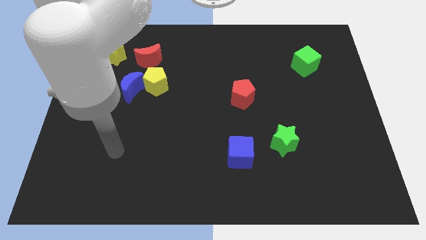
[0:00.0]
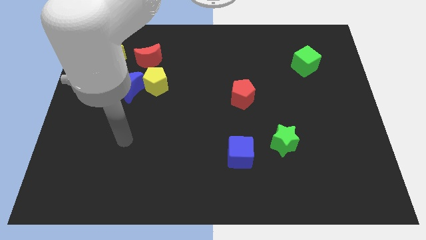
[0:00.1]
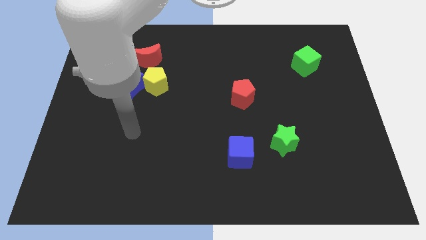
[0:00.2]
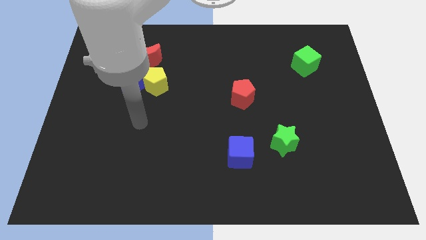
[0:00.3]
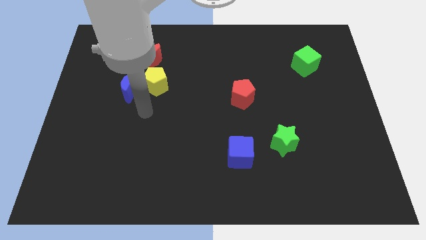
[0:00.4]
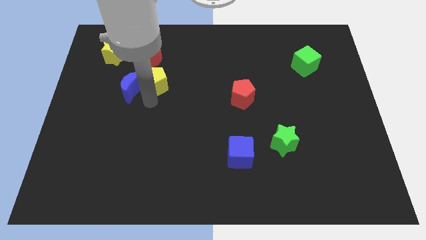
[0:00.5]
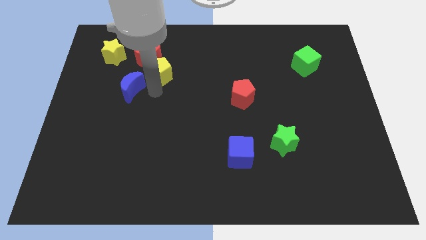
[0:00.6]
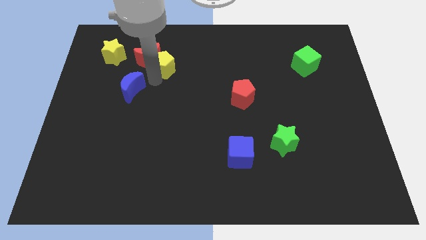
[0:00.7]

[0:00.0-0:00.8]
move the blue moon away from the yellow pentagon

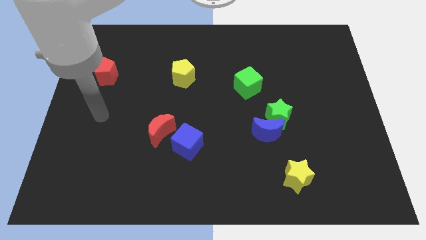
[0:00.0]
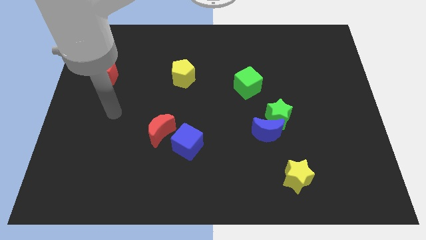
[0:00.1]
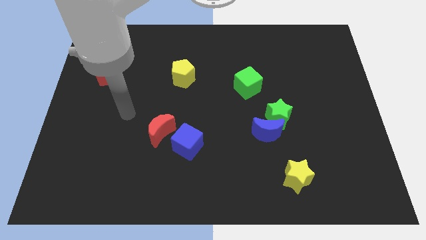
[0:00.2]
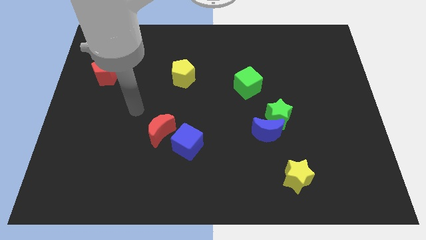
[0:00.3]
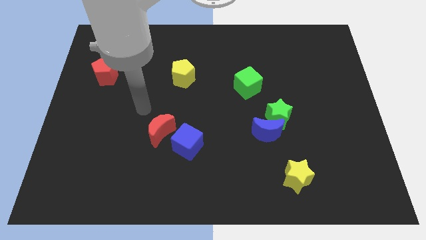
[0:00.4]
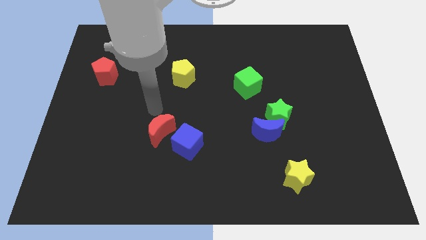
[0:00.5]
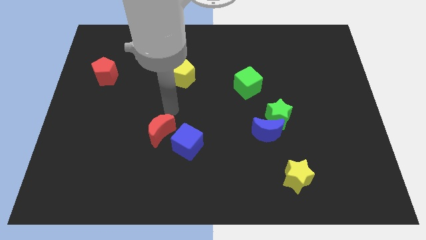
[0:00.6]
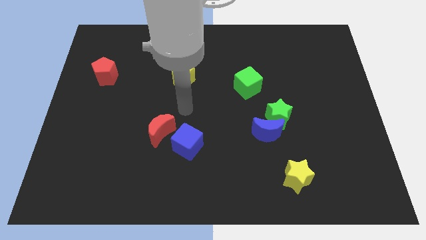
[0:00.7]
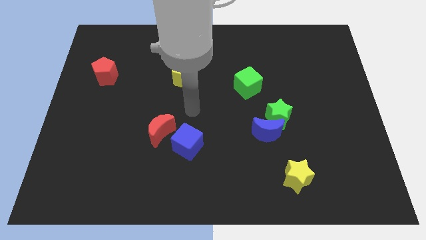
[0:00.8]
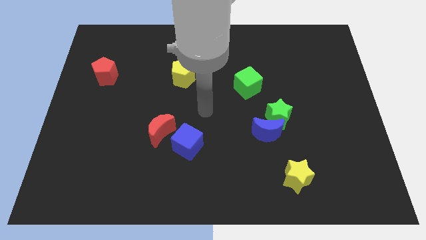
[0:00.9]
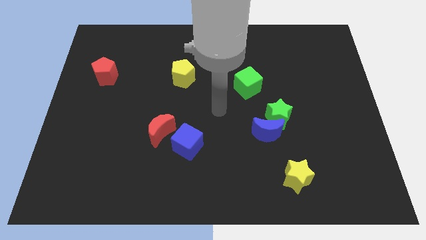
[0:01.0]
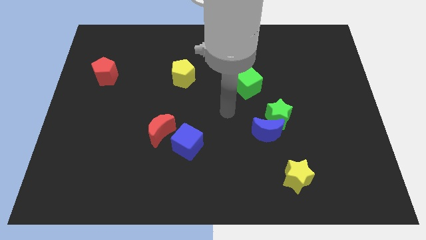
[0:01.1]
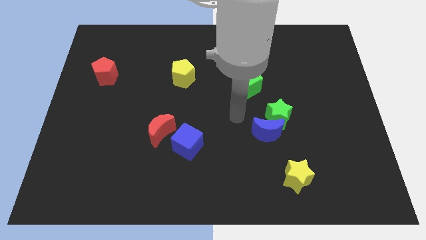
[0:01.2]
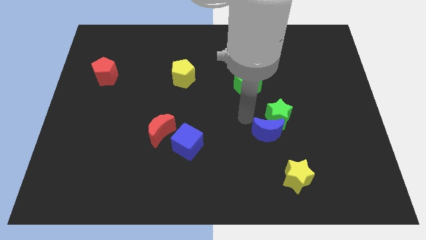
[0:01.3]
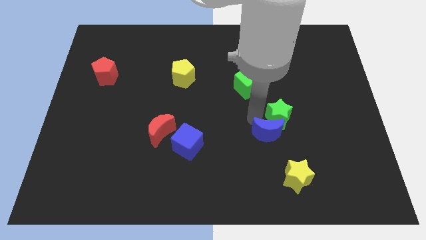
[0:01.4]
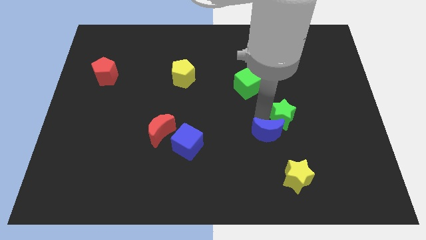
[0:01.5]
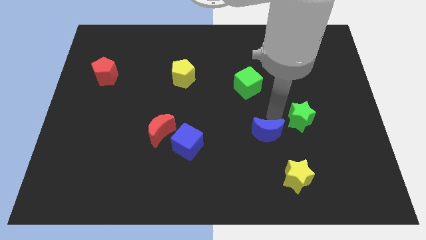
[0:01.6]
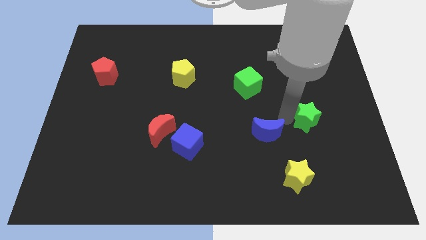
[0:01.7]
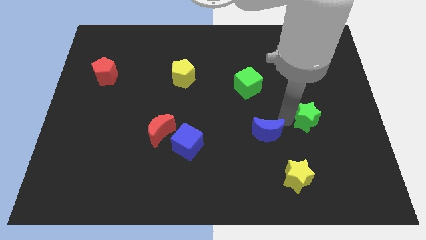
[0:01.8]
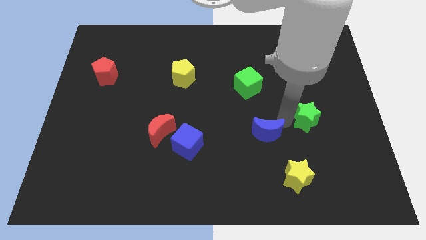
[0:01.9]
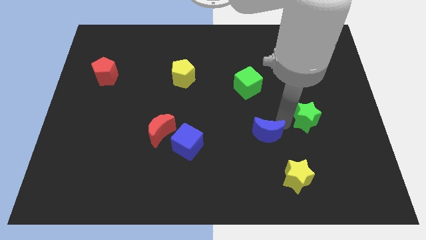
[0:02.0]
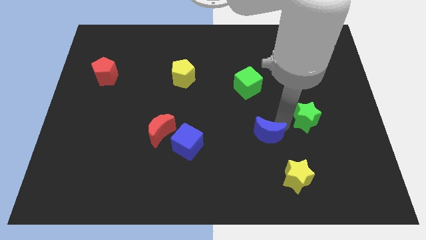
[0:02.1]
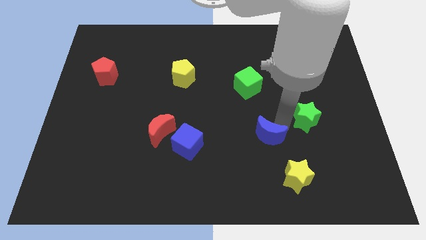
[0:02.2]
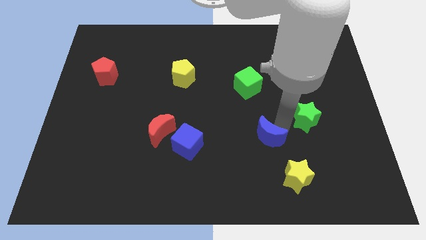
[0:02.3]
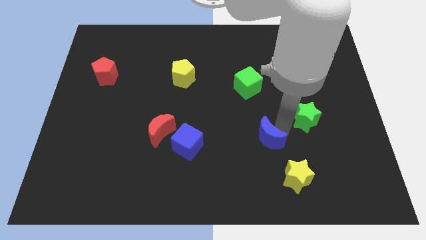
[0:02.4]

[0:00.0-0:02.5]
pull the blue moon apart from the green star

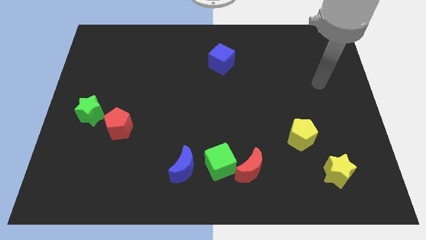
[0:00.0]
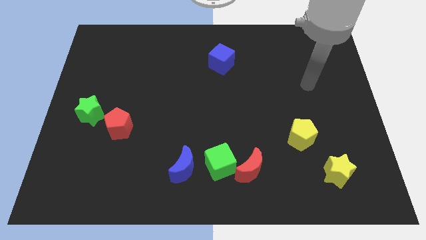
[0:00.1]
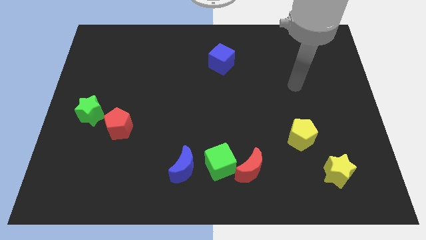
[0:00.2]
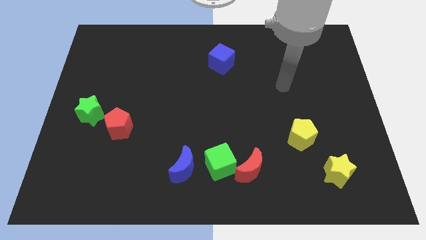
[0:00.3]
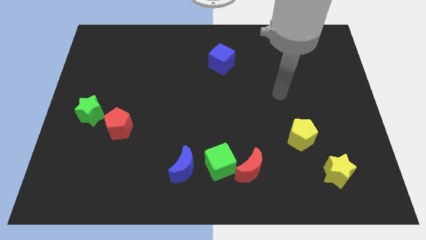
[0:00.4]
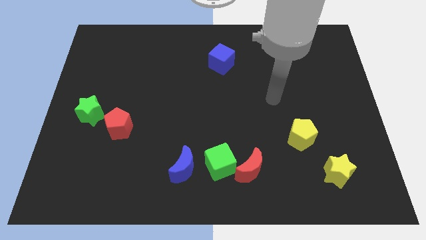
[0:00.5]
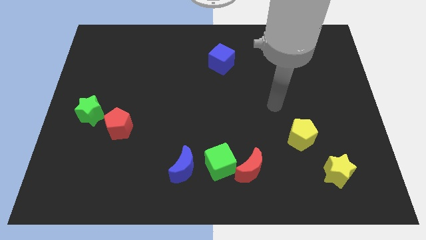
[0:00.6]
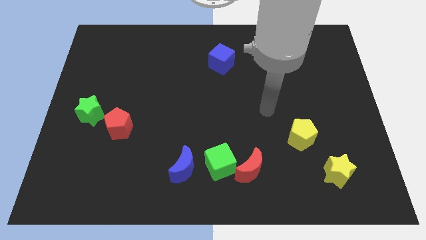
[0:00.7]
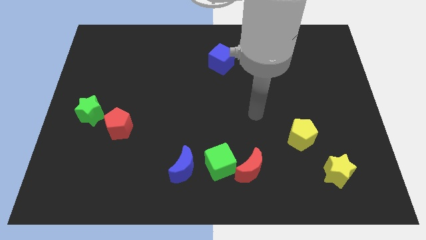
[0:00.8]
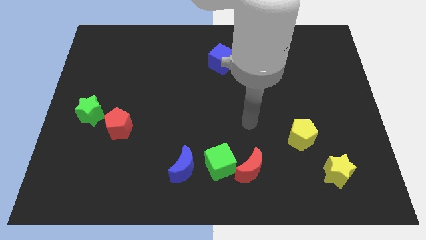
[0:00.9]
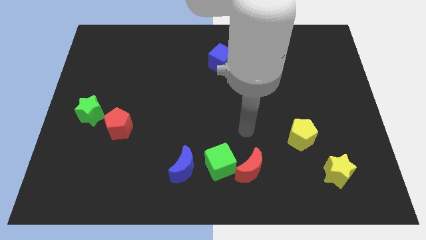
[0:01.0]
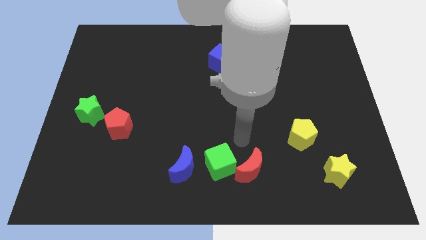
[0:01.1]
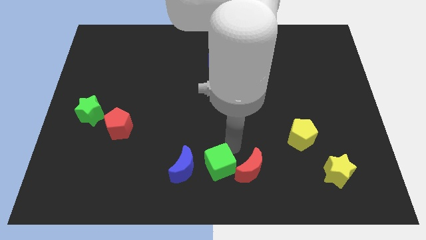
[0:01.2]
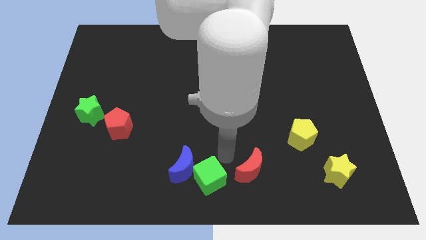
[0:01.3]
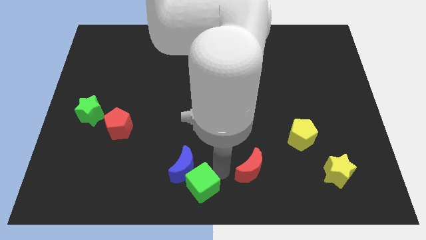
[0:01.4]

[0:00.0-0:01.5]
move the red moon away from the green cube

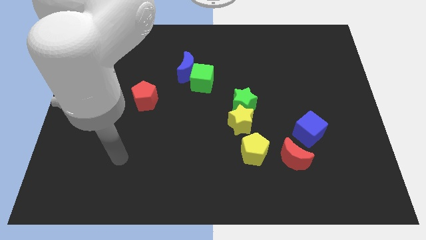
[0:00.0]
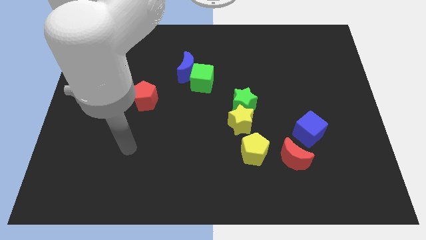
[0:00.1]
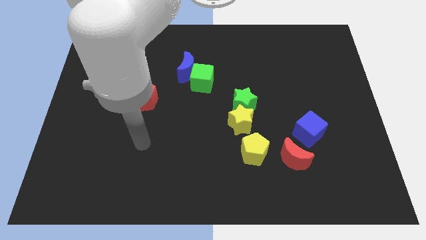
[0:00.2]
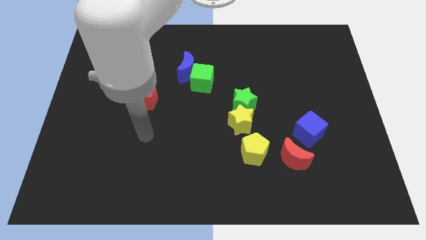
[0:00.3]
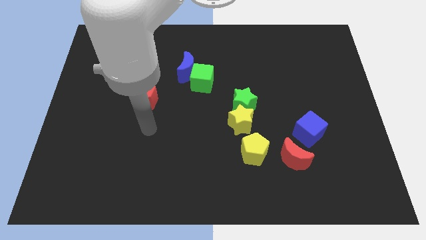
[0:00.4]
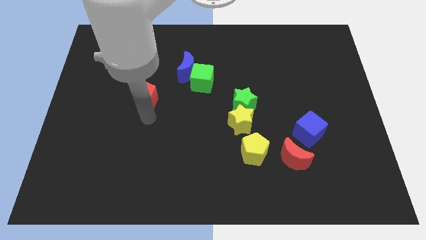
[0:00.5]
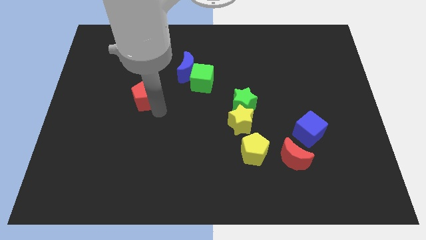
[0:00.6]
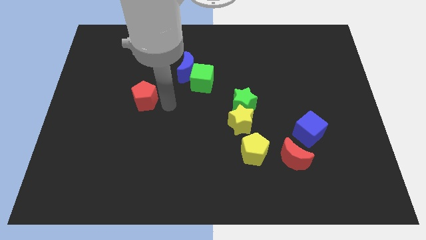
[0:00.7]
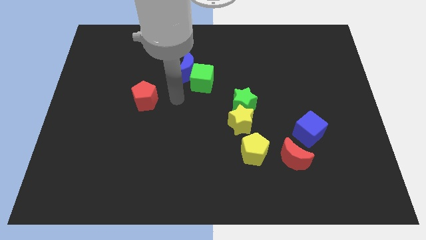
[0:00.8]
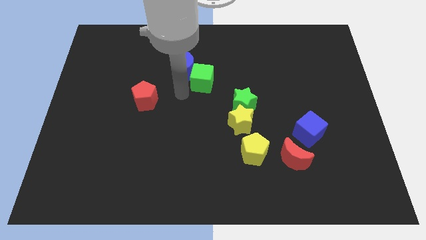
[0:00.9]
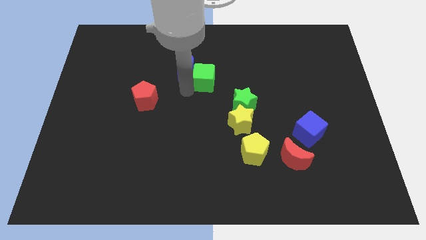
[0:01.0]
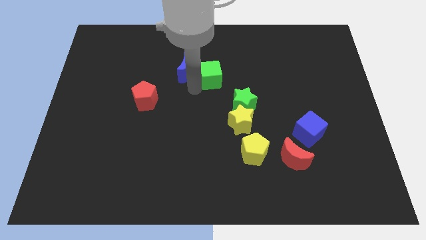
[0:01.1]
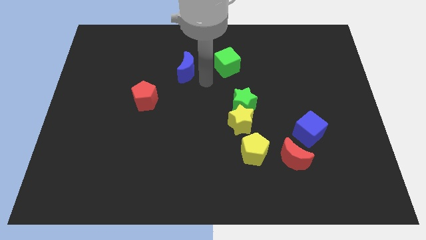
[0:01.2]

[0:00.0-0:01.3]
pull the blue moon apart from the green cube

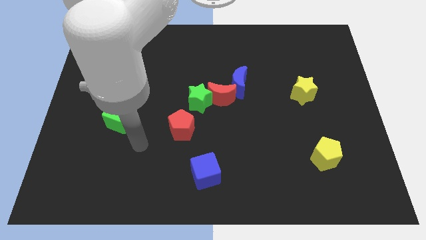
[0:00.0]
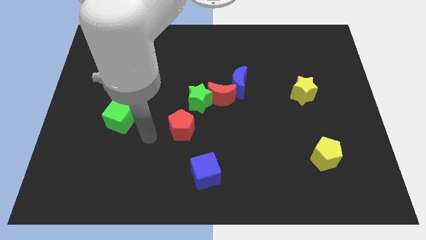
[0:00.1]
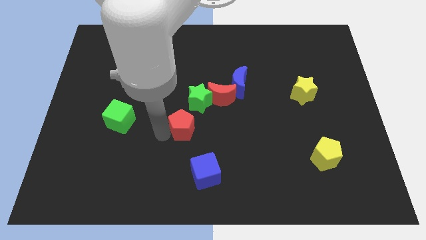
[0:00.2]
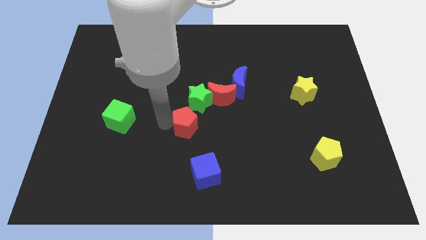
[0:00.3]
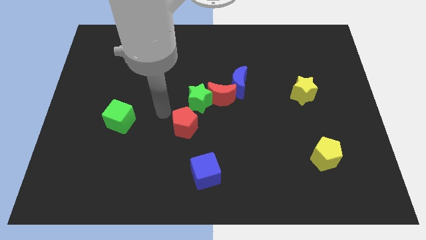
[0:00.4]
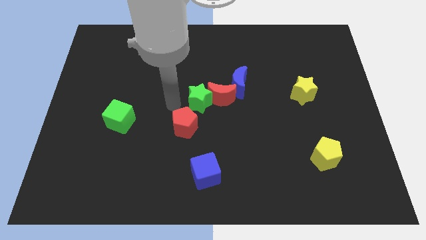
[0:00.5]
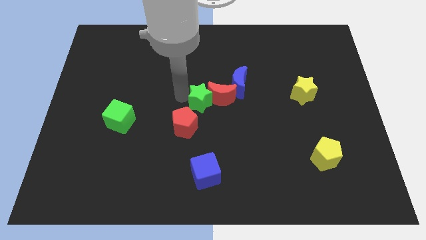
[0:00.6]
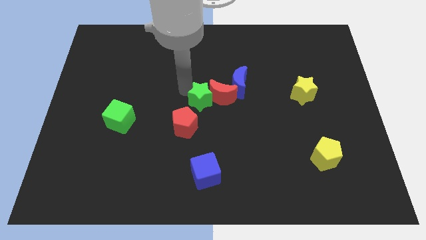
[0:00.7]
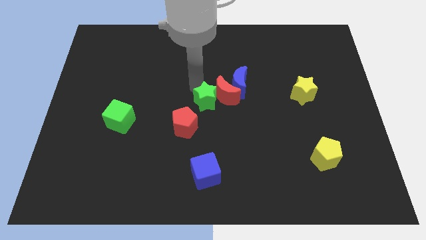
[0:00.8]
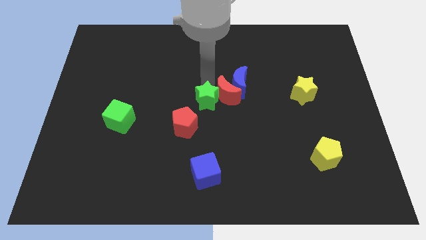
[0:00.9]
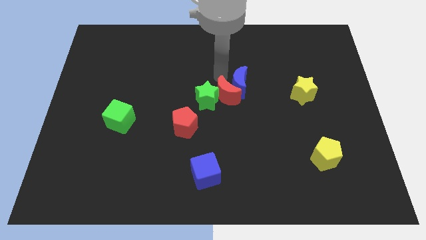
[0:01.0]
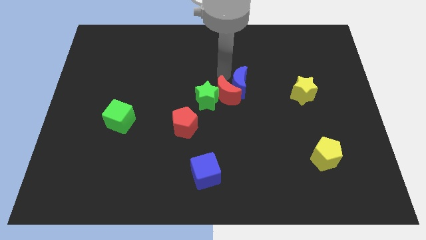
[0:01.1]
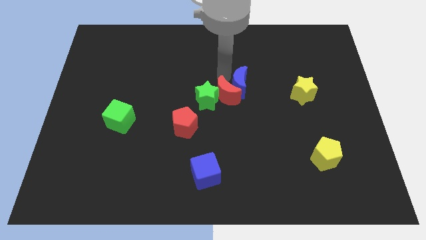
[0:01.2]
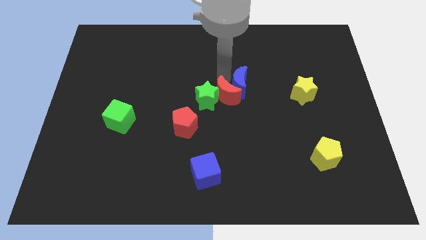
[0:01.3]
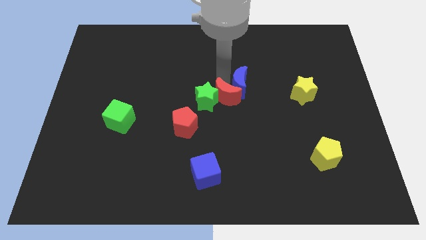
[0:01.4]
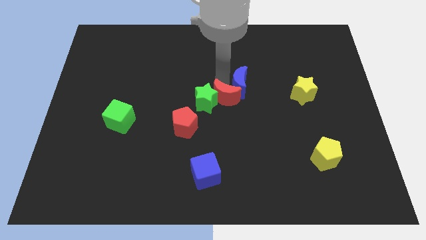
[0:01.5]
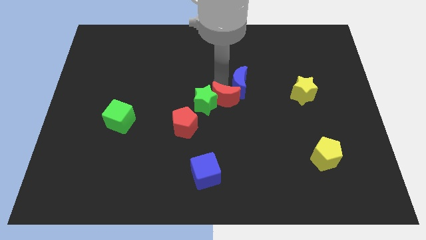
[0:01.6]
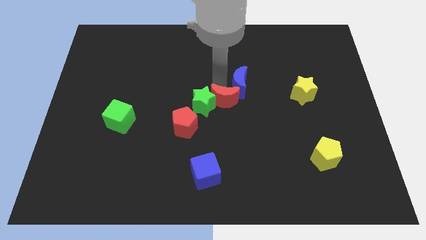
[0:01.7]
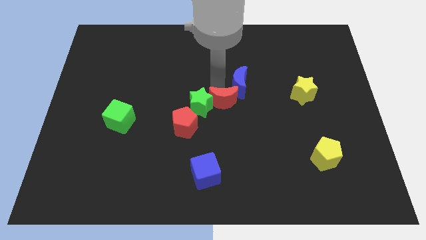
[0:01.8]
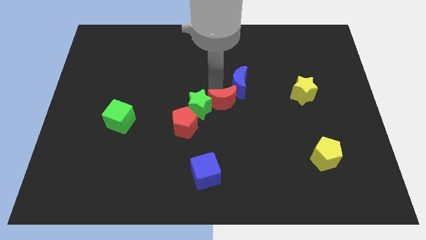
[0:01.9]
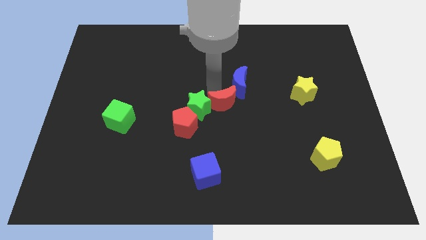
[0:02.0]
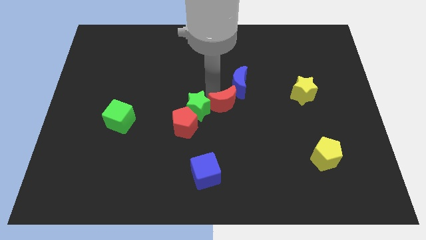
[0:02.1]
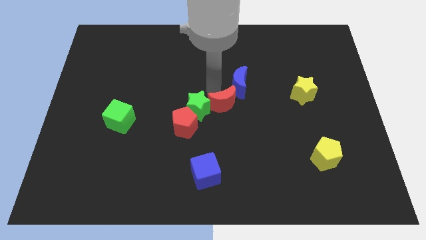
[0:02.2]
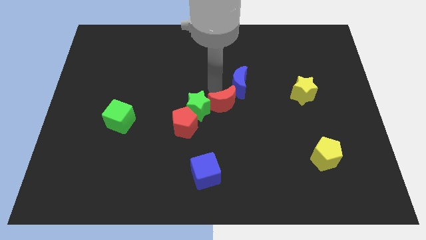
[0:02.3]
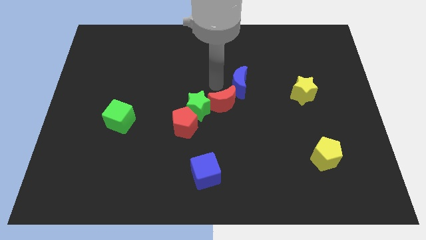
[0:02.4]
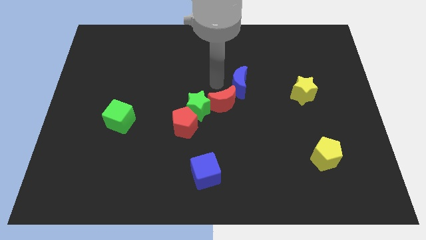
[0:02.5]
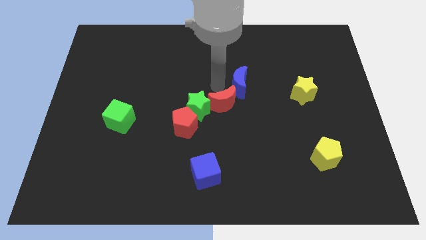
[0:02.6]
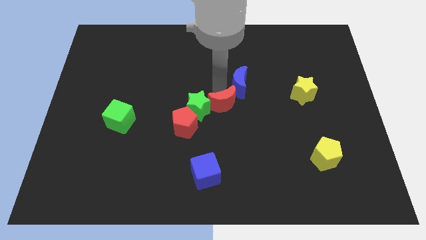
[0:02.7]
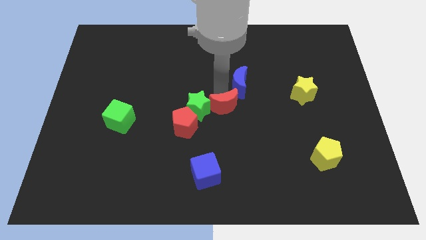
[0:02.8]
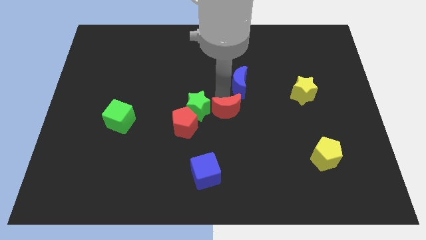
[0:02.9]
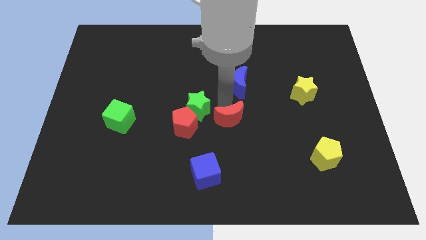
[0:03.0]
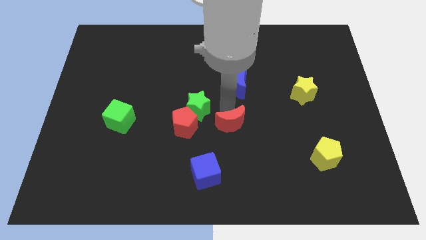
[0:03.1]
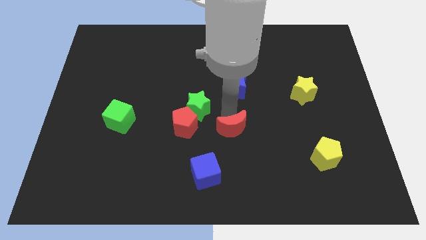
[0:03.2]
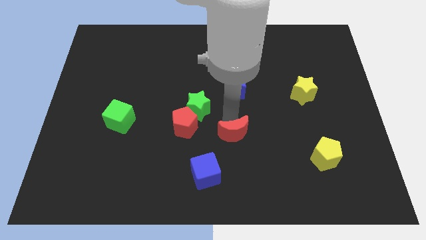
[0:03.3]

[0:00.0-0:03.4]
move the red moon away from the green star and blue moon
